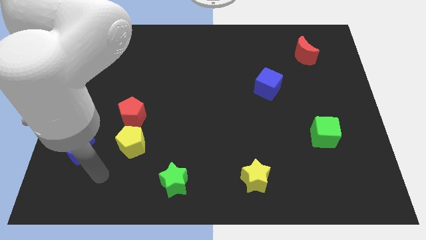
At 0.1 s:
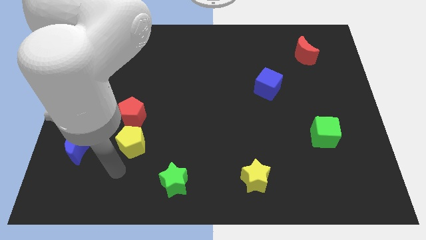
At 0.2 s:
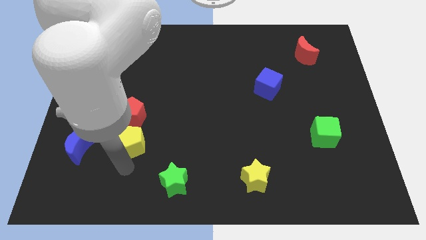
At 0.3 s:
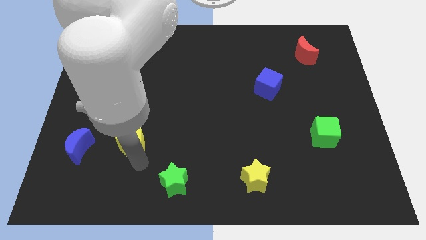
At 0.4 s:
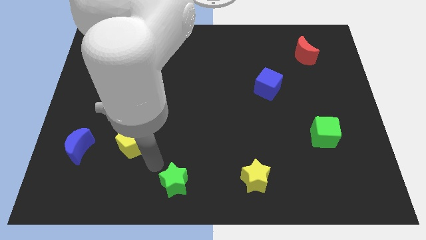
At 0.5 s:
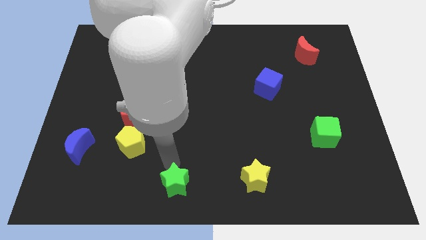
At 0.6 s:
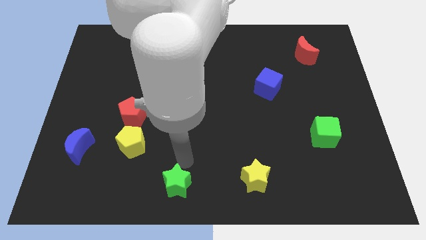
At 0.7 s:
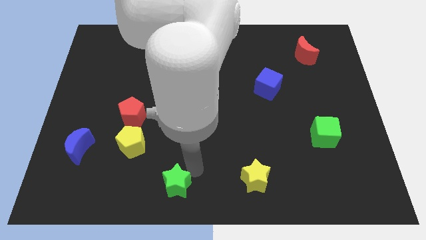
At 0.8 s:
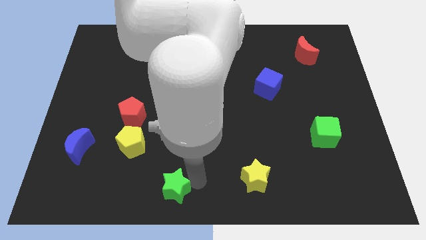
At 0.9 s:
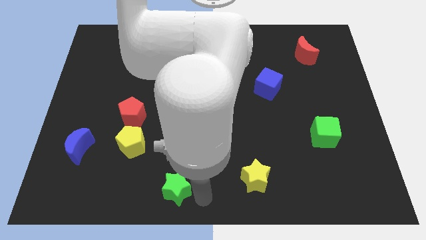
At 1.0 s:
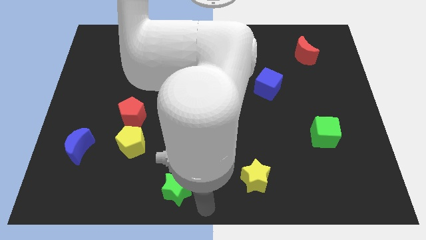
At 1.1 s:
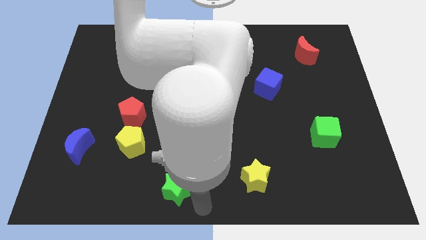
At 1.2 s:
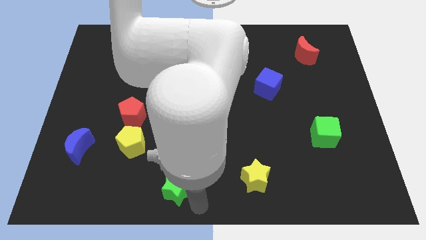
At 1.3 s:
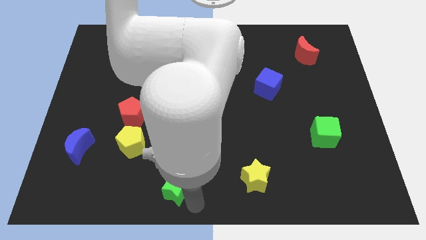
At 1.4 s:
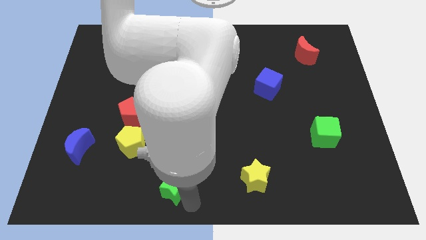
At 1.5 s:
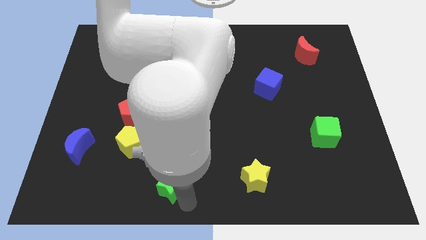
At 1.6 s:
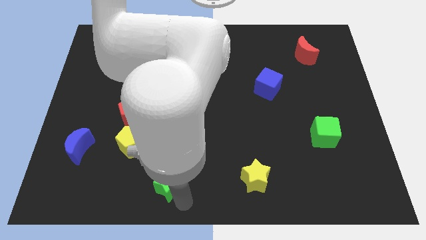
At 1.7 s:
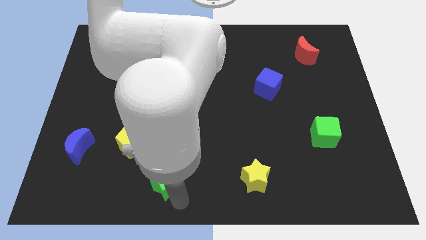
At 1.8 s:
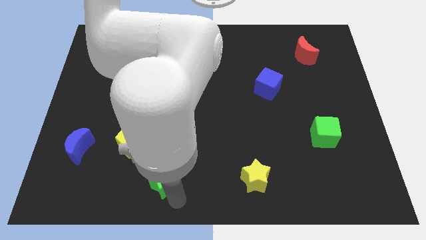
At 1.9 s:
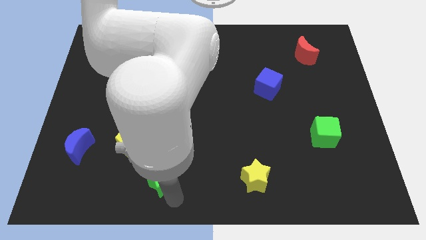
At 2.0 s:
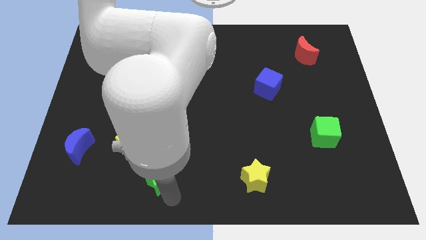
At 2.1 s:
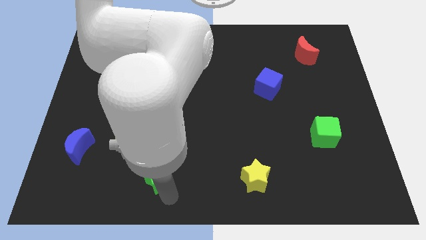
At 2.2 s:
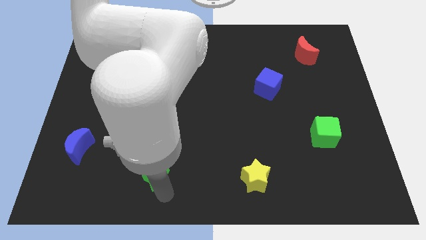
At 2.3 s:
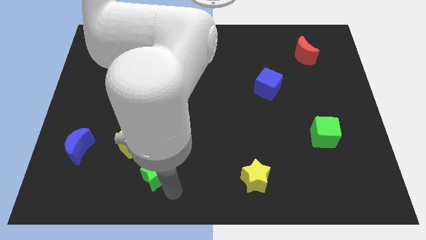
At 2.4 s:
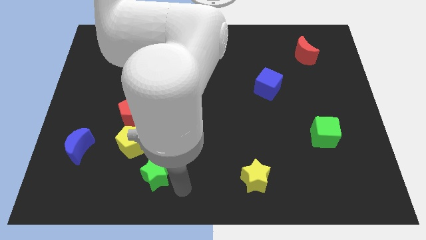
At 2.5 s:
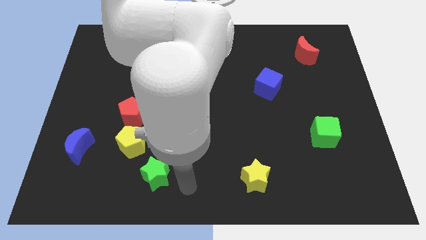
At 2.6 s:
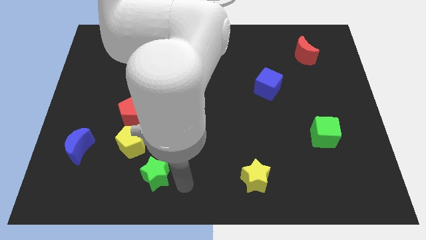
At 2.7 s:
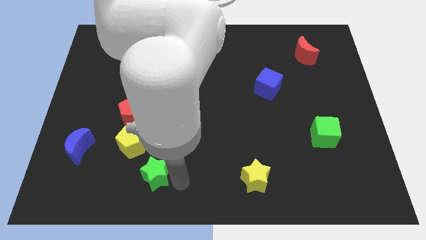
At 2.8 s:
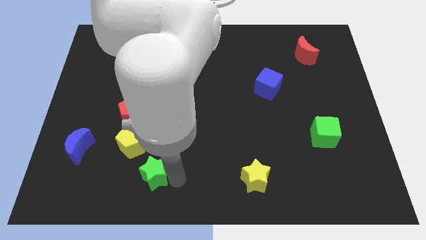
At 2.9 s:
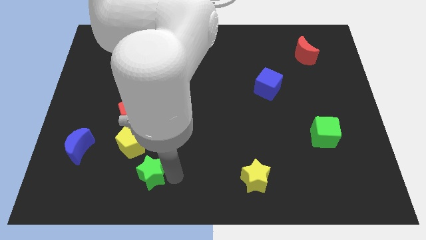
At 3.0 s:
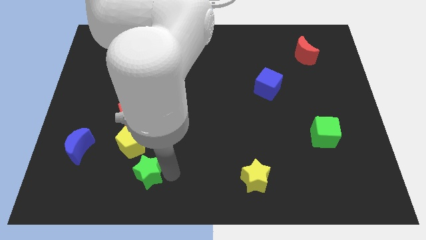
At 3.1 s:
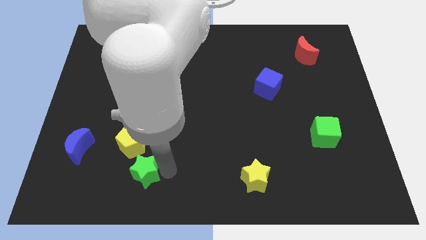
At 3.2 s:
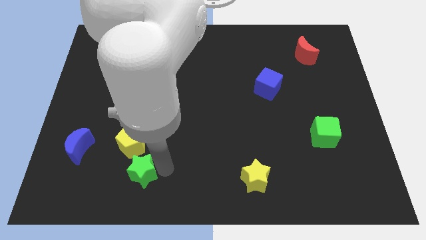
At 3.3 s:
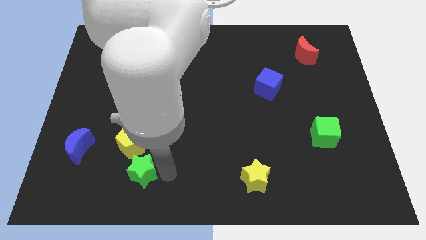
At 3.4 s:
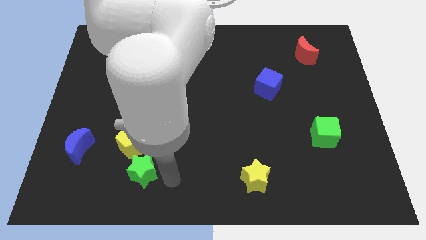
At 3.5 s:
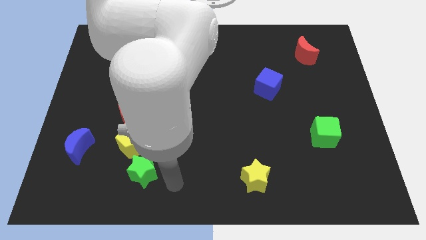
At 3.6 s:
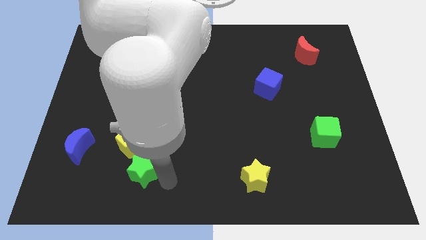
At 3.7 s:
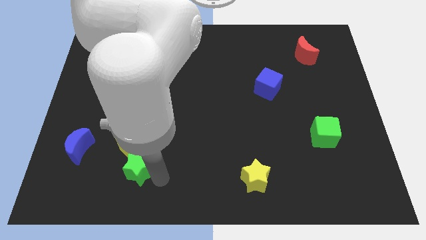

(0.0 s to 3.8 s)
move the green star upwards and to the left slightly

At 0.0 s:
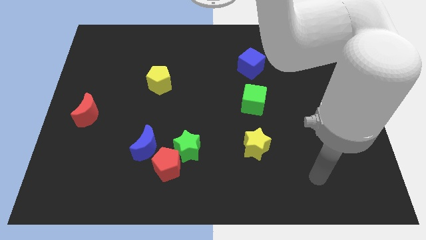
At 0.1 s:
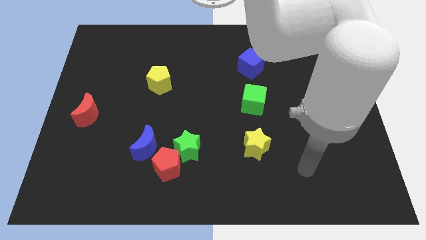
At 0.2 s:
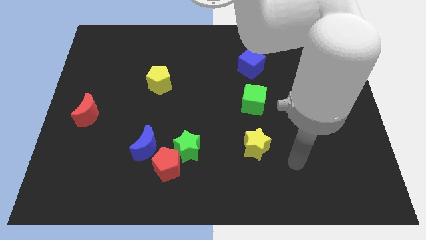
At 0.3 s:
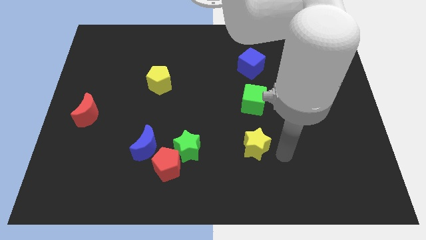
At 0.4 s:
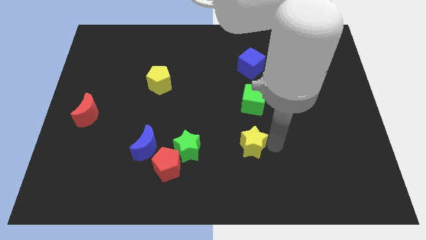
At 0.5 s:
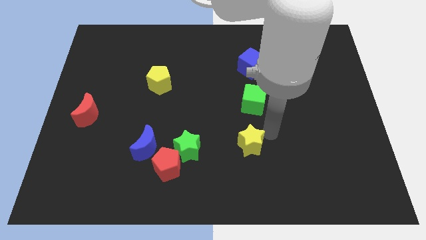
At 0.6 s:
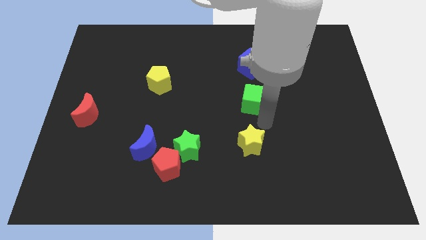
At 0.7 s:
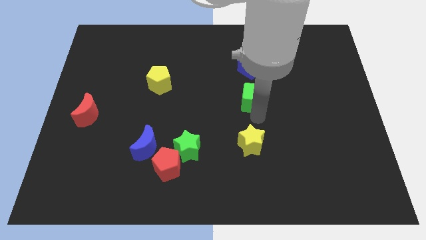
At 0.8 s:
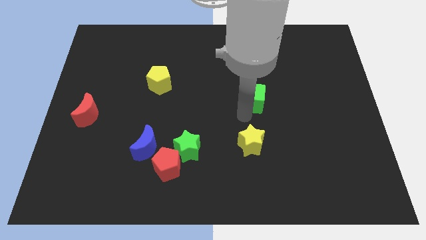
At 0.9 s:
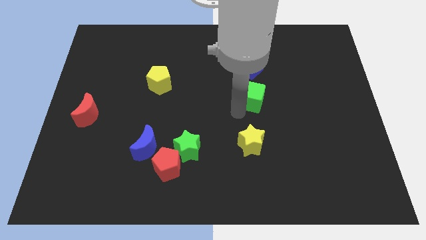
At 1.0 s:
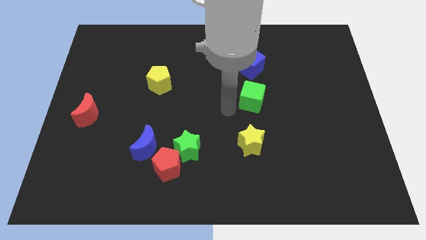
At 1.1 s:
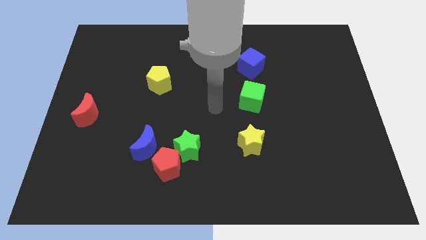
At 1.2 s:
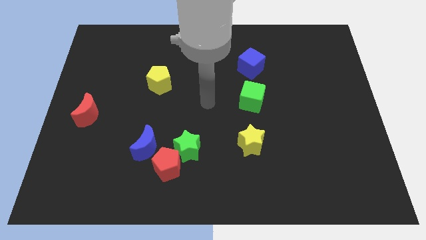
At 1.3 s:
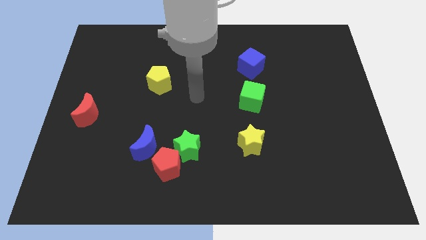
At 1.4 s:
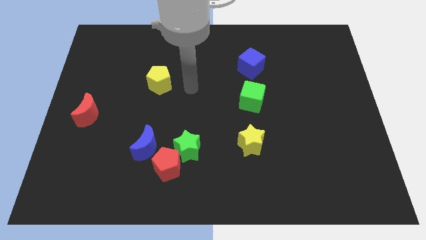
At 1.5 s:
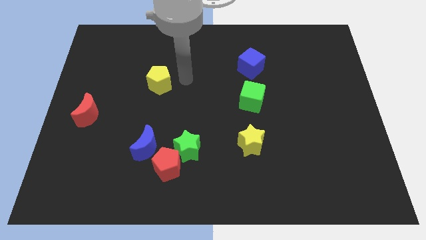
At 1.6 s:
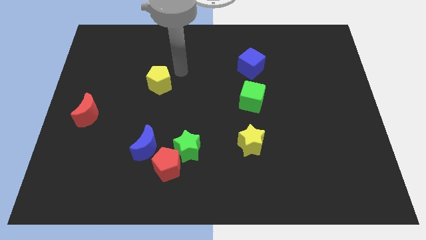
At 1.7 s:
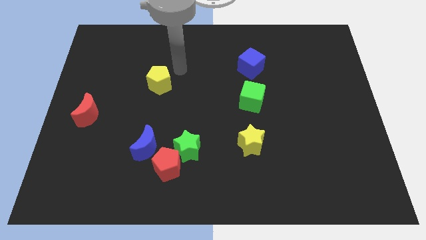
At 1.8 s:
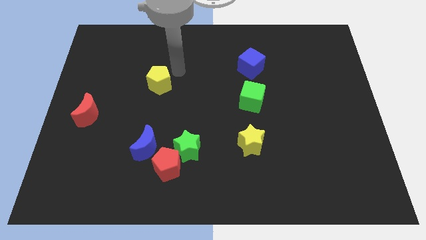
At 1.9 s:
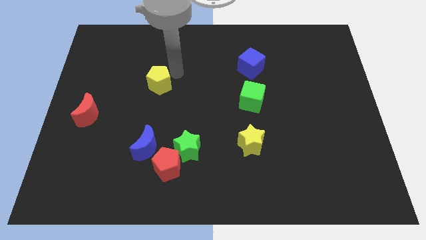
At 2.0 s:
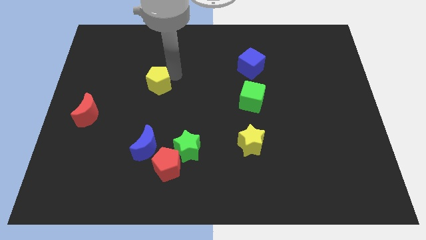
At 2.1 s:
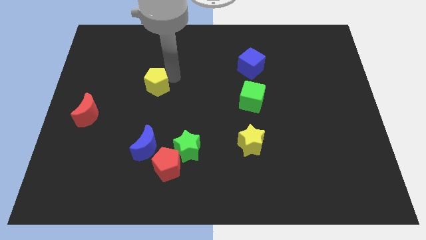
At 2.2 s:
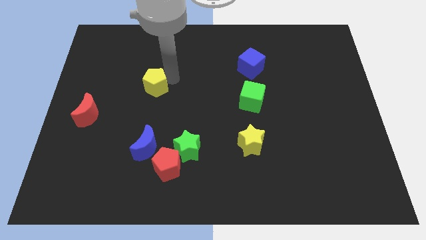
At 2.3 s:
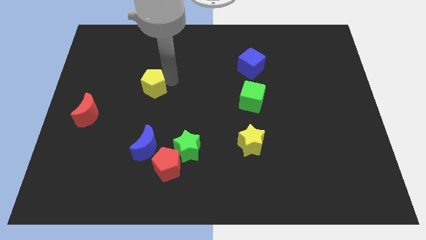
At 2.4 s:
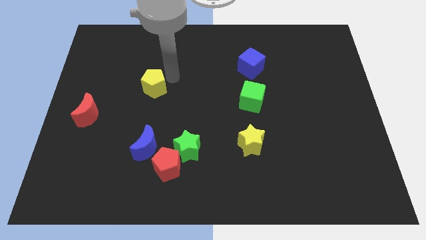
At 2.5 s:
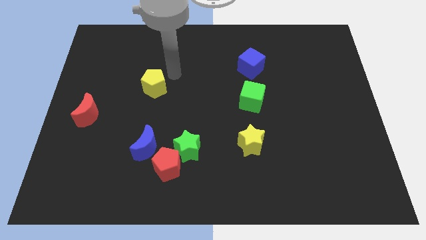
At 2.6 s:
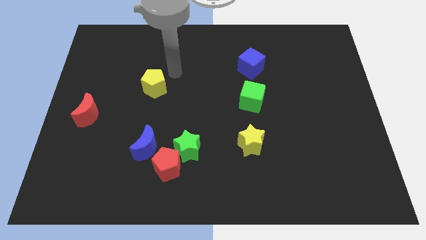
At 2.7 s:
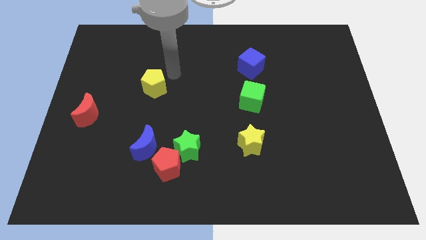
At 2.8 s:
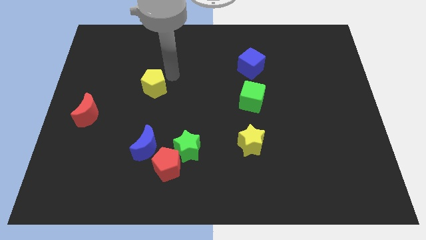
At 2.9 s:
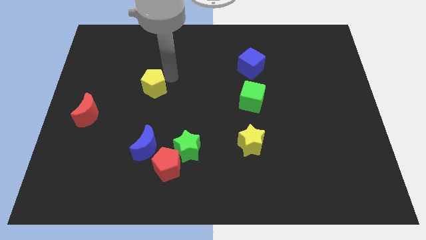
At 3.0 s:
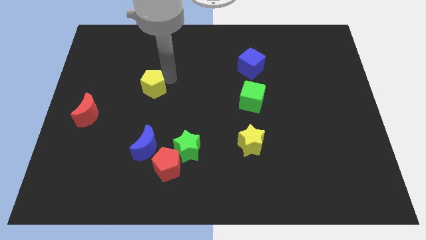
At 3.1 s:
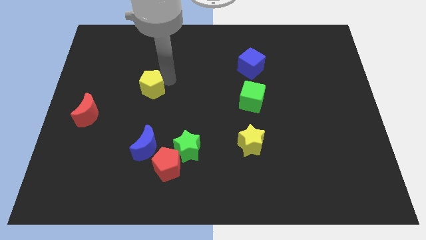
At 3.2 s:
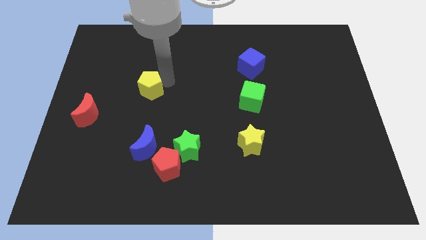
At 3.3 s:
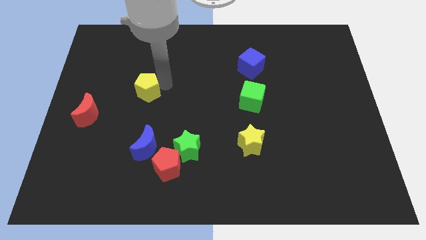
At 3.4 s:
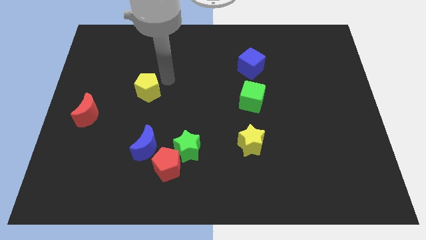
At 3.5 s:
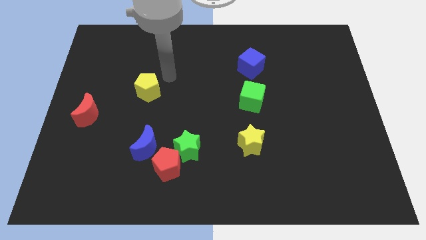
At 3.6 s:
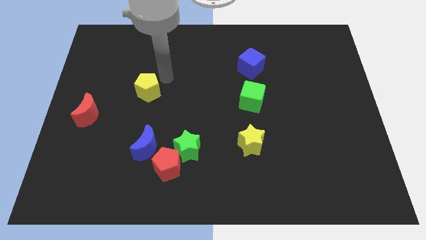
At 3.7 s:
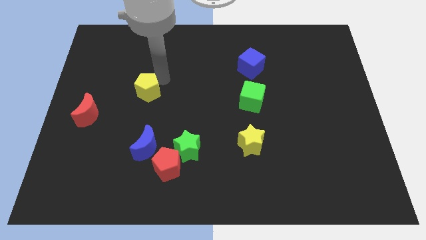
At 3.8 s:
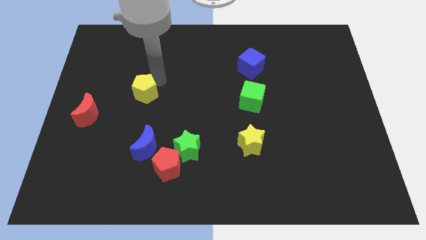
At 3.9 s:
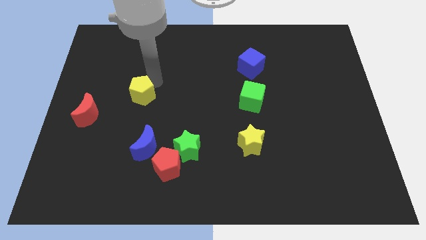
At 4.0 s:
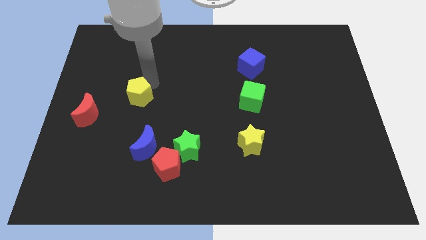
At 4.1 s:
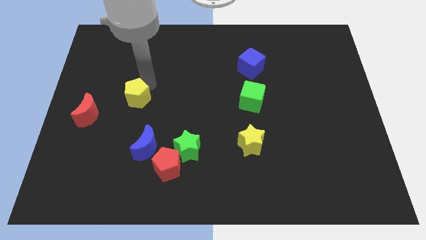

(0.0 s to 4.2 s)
push the yellow pentagon diagonally downwards and to the left a little bit
